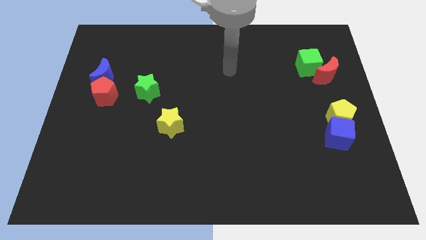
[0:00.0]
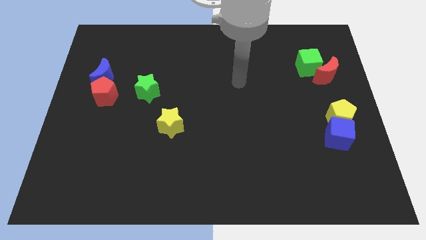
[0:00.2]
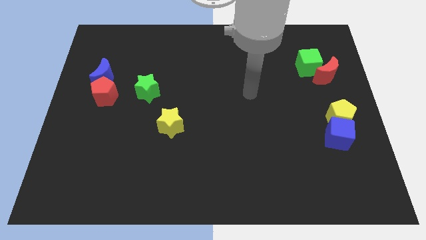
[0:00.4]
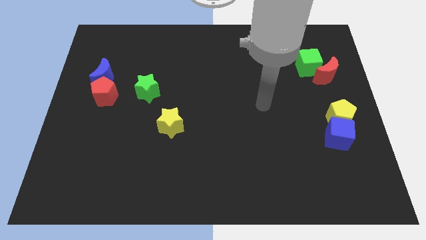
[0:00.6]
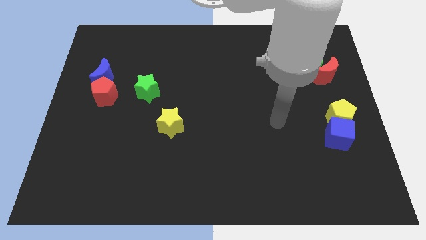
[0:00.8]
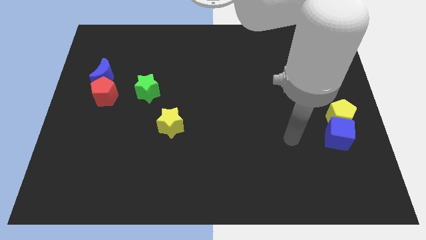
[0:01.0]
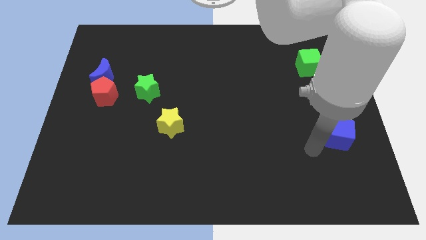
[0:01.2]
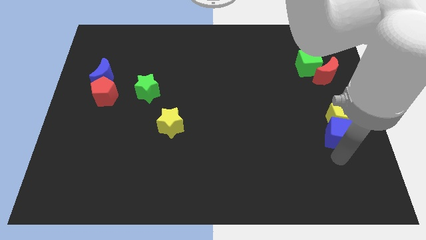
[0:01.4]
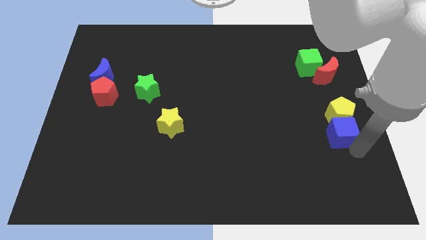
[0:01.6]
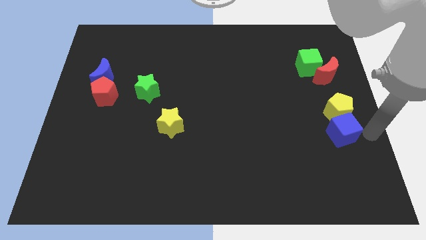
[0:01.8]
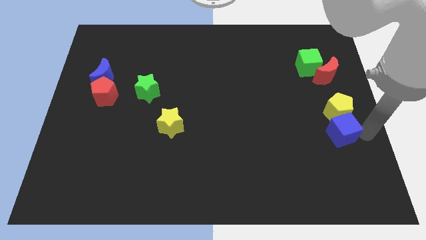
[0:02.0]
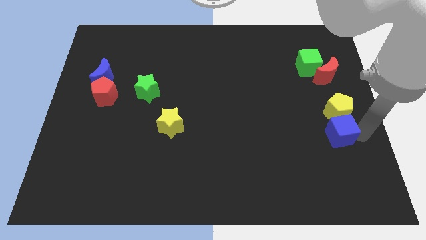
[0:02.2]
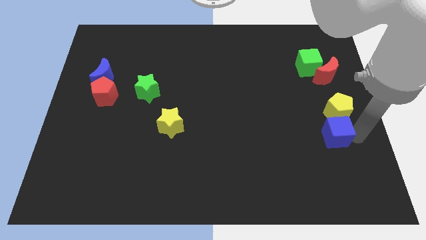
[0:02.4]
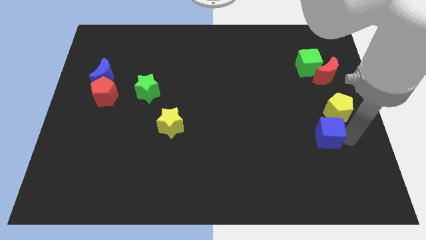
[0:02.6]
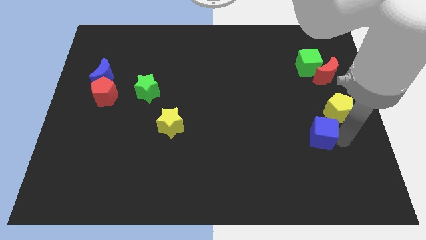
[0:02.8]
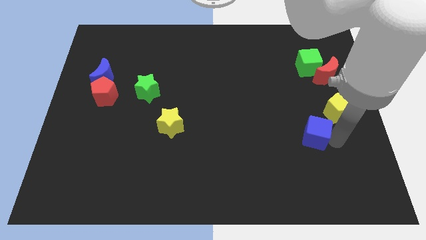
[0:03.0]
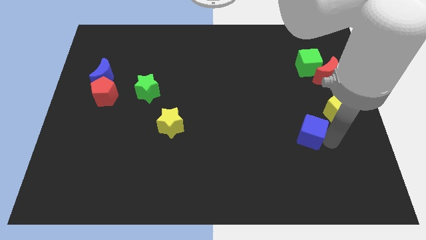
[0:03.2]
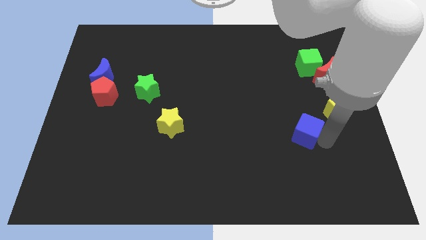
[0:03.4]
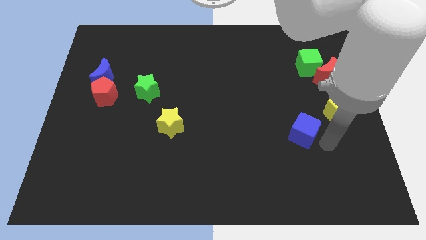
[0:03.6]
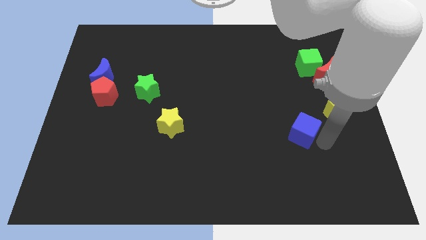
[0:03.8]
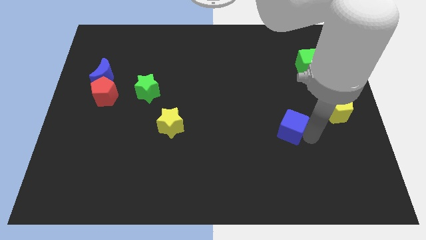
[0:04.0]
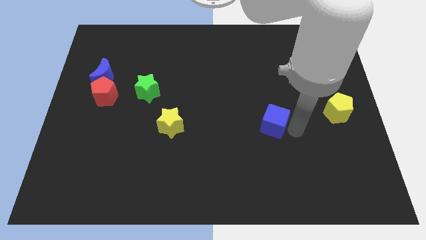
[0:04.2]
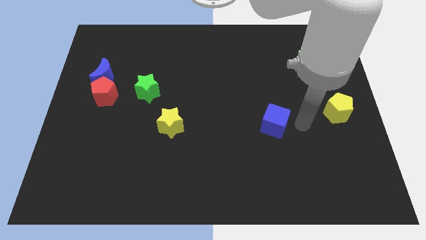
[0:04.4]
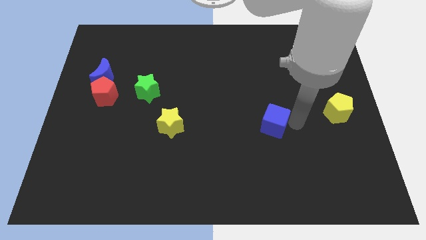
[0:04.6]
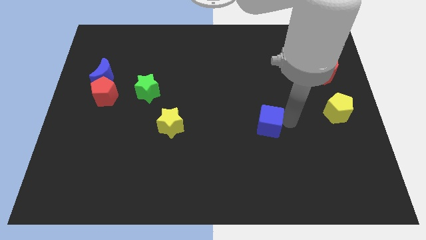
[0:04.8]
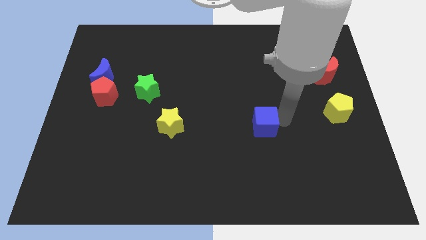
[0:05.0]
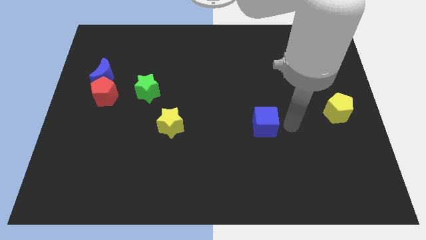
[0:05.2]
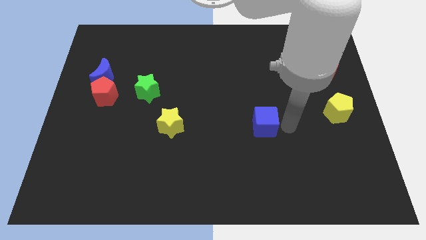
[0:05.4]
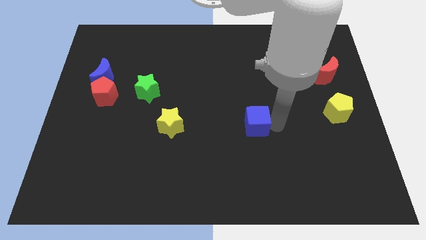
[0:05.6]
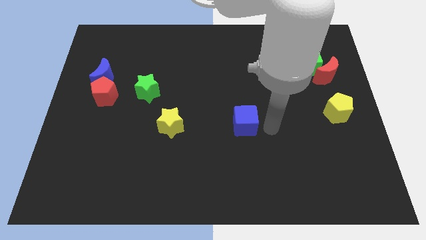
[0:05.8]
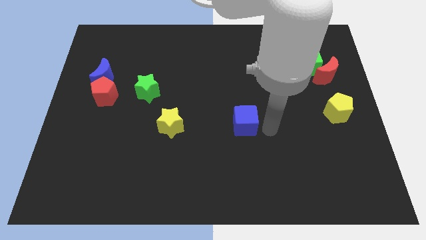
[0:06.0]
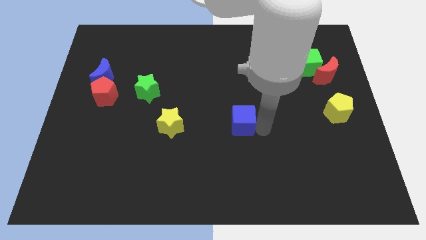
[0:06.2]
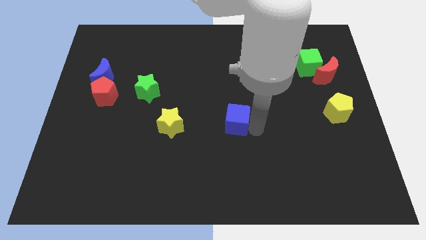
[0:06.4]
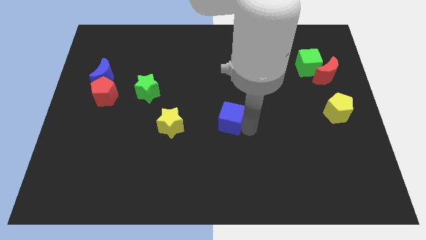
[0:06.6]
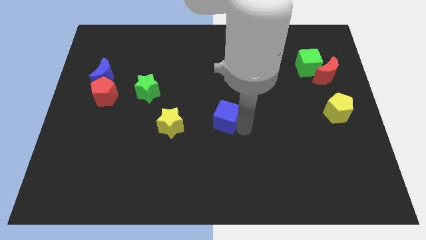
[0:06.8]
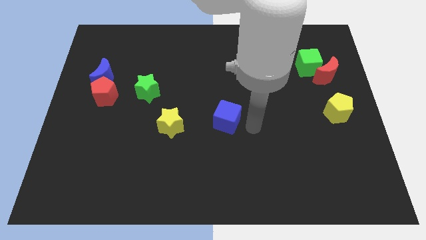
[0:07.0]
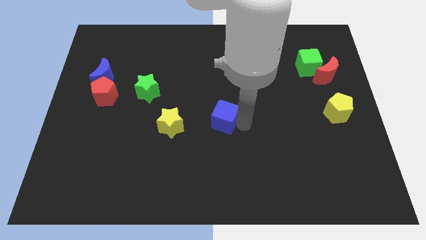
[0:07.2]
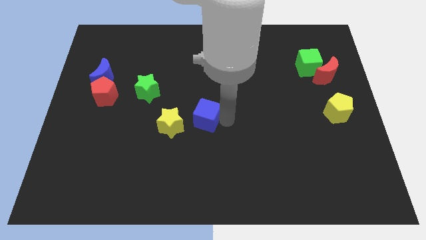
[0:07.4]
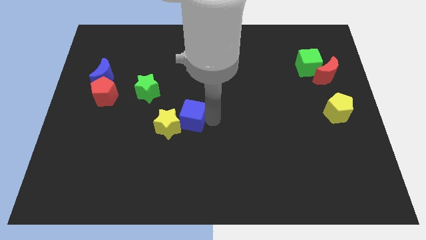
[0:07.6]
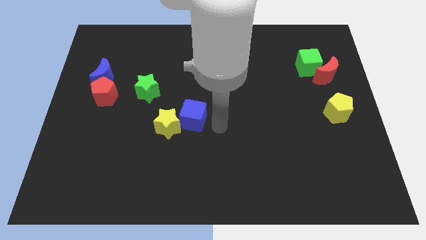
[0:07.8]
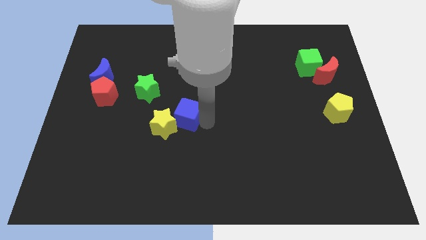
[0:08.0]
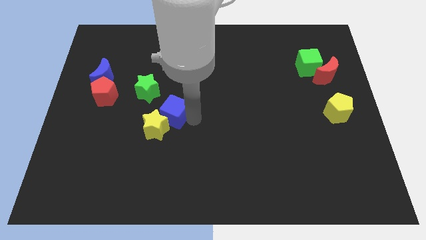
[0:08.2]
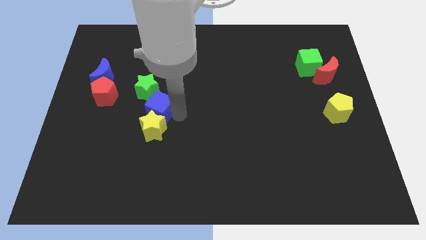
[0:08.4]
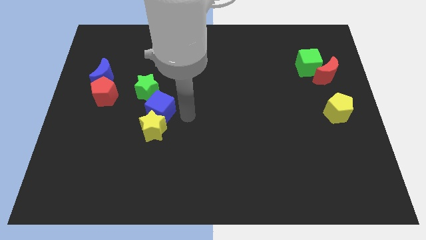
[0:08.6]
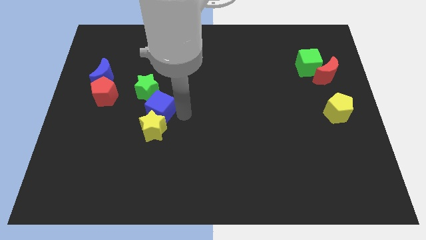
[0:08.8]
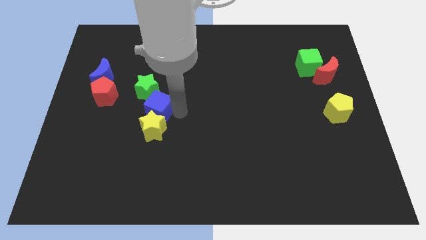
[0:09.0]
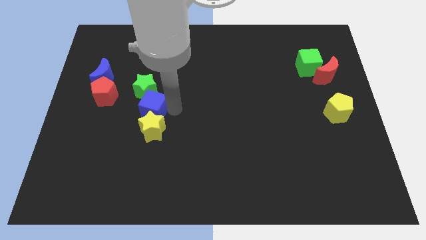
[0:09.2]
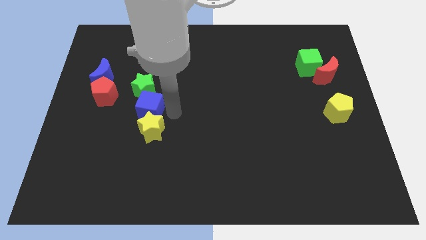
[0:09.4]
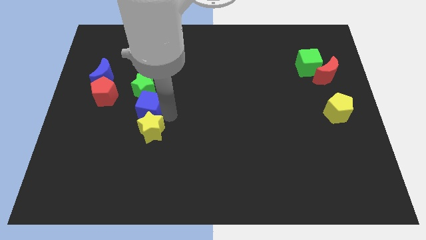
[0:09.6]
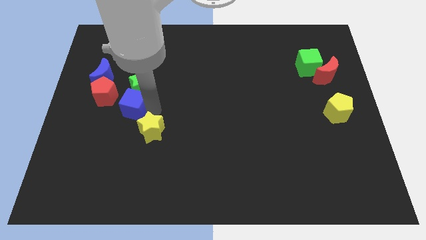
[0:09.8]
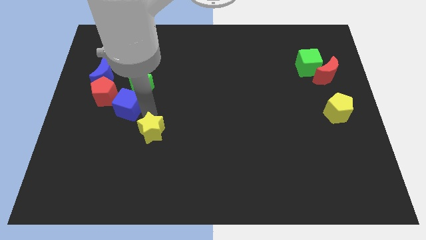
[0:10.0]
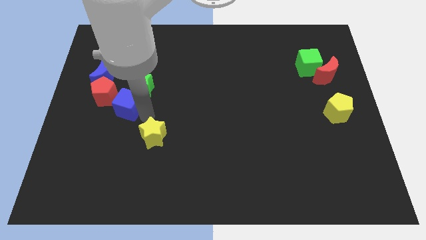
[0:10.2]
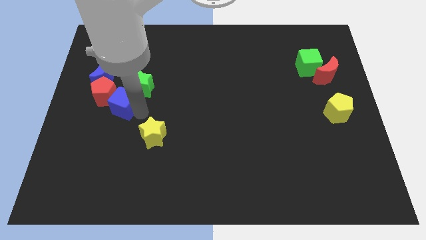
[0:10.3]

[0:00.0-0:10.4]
push the blue cube close to the red pentagon

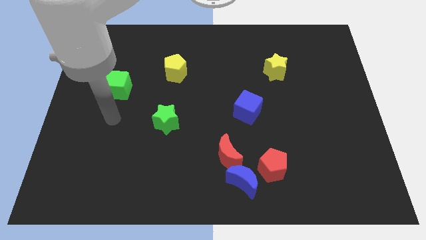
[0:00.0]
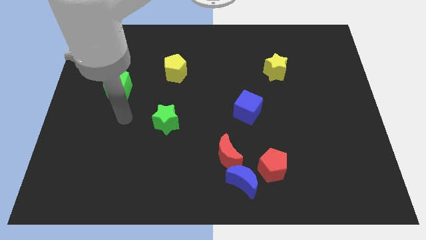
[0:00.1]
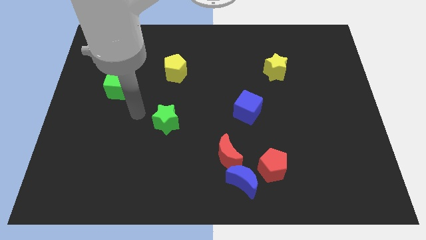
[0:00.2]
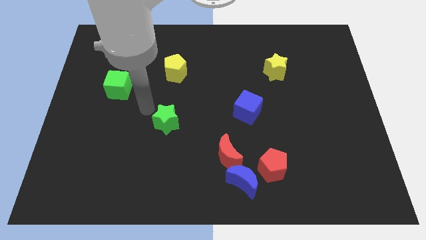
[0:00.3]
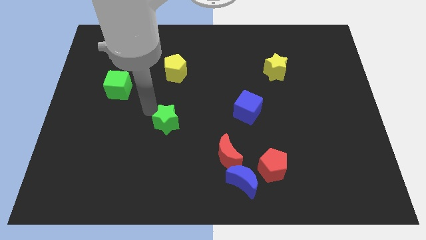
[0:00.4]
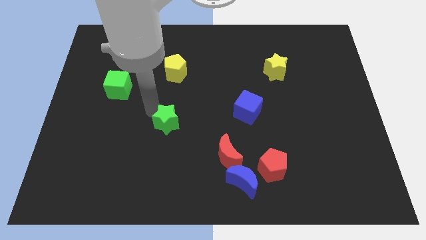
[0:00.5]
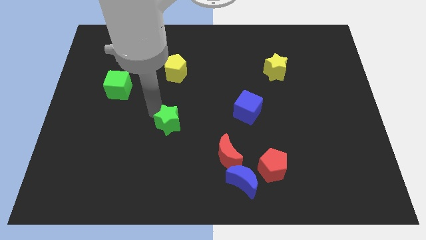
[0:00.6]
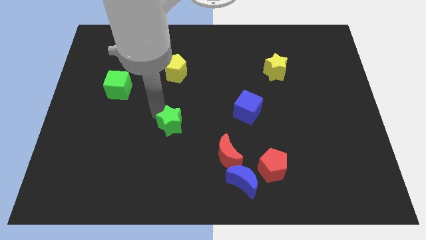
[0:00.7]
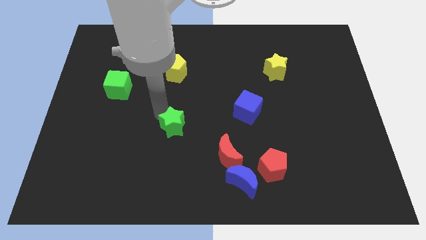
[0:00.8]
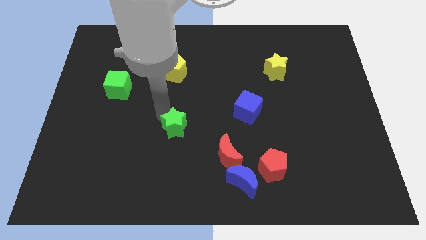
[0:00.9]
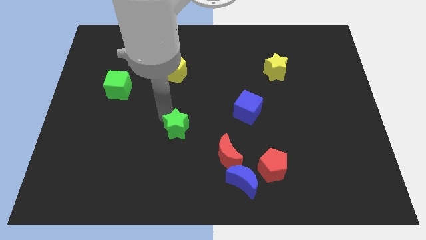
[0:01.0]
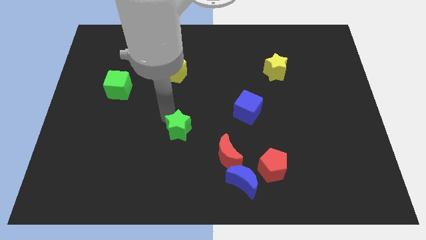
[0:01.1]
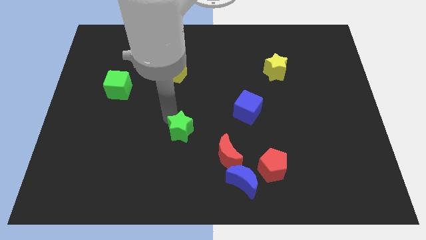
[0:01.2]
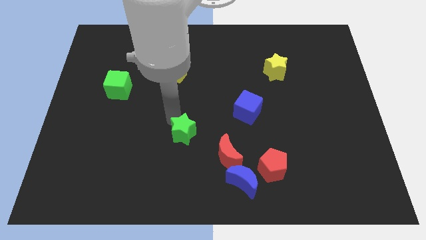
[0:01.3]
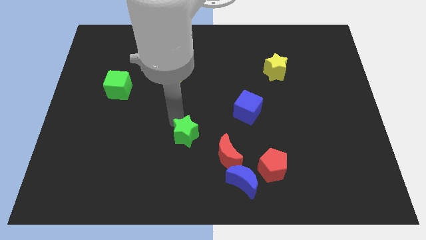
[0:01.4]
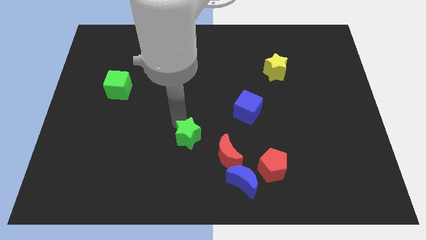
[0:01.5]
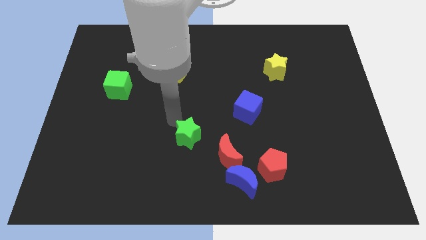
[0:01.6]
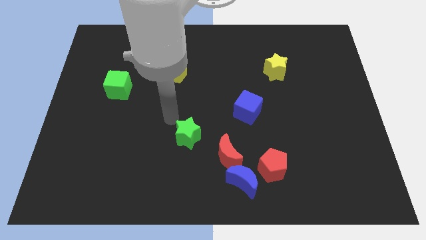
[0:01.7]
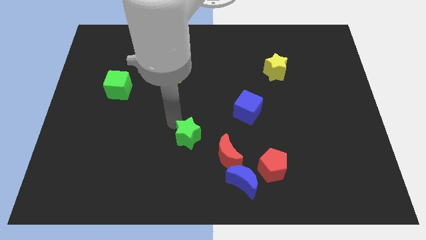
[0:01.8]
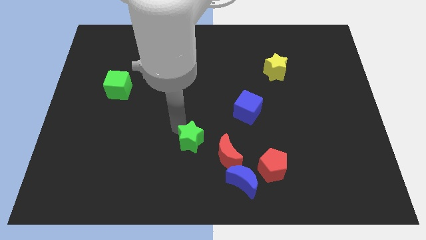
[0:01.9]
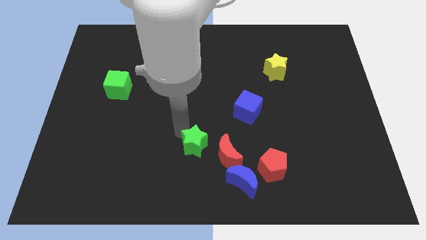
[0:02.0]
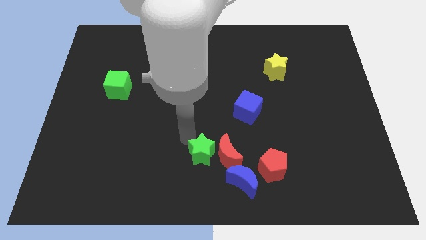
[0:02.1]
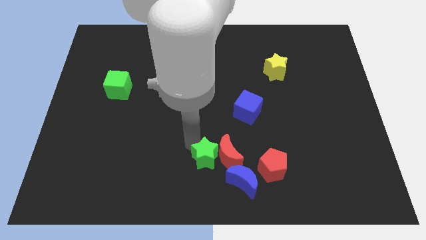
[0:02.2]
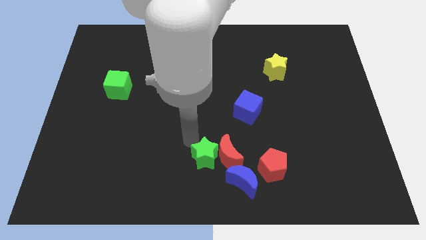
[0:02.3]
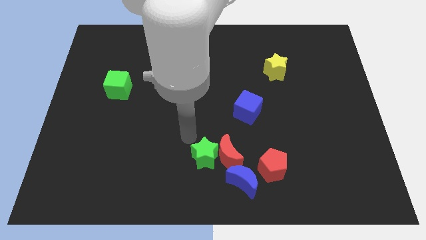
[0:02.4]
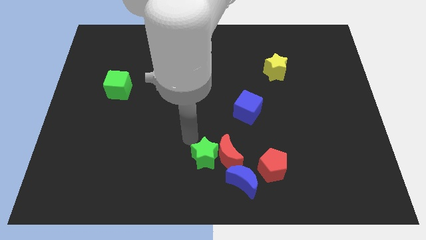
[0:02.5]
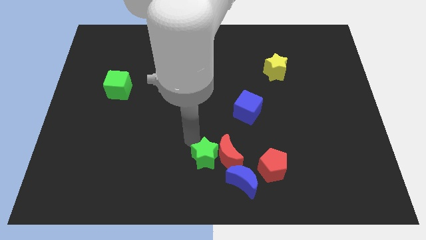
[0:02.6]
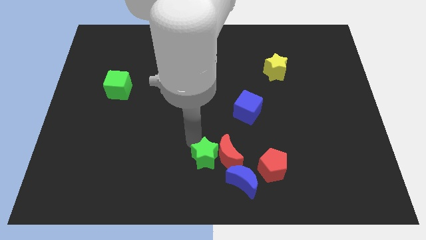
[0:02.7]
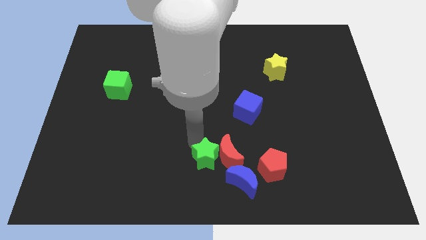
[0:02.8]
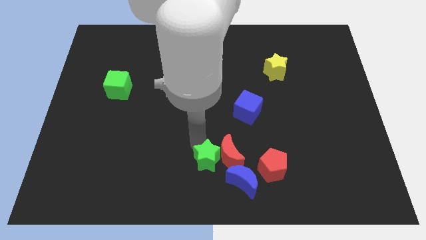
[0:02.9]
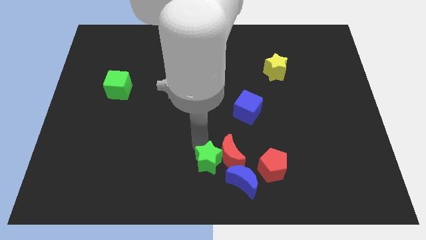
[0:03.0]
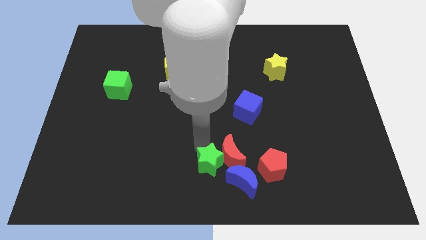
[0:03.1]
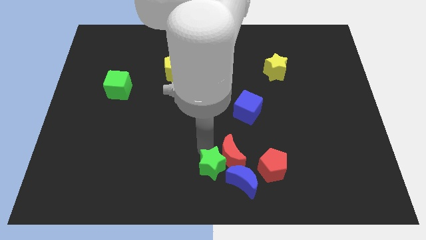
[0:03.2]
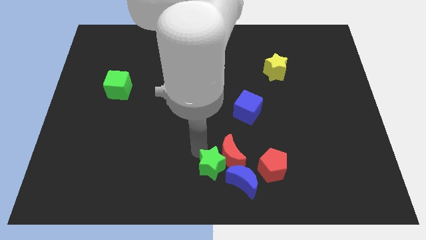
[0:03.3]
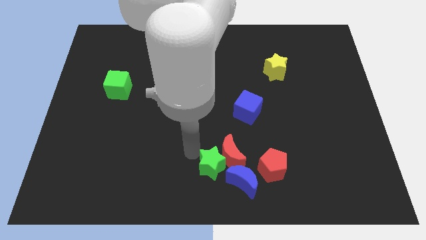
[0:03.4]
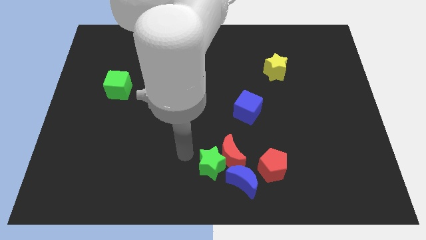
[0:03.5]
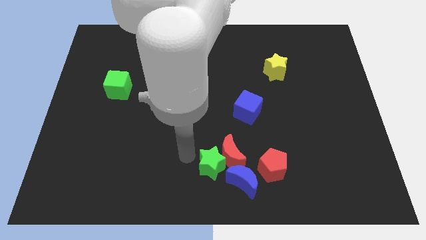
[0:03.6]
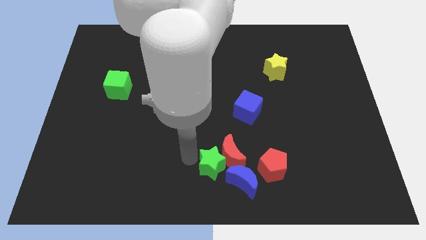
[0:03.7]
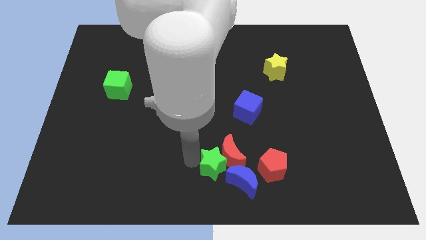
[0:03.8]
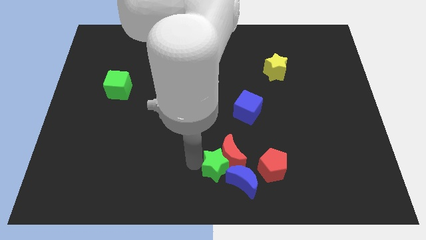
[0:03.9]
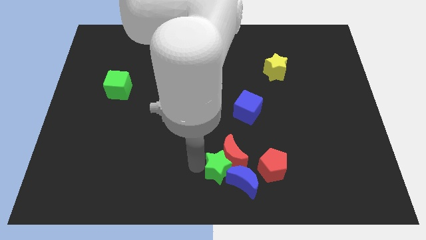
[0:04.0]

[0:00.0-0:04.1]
push the green star to the blue moon
